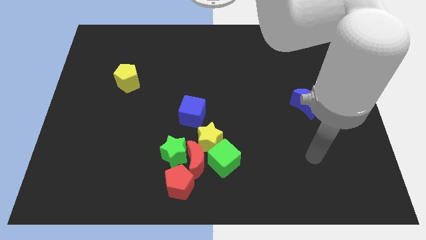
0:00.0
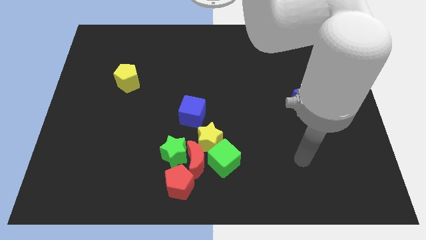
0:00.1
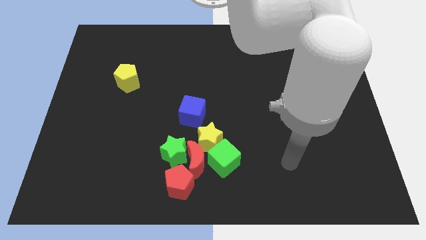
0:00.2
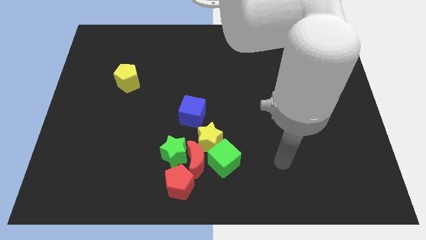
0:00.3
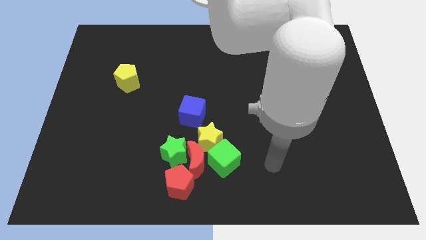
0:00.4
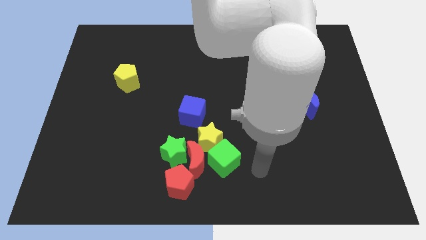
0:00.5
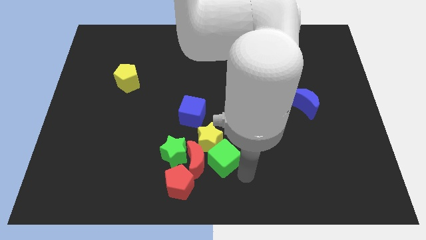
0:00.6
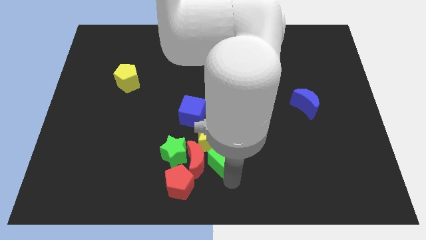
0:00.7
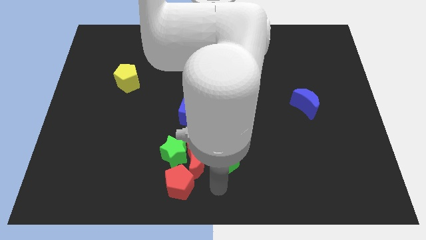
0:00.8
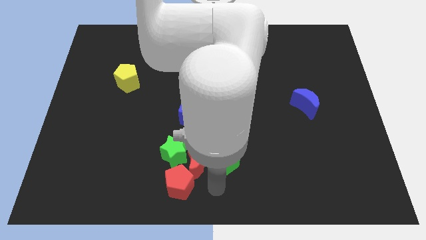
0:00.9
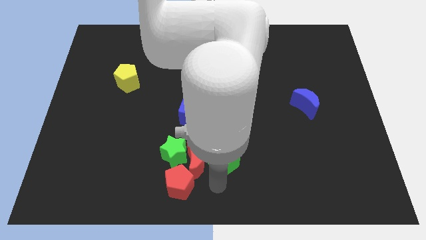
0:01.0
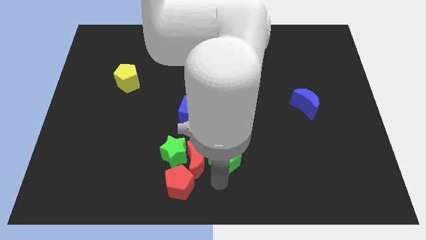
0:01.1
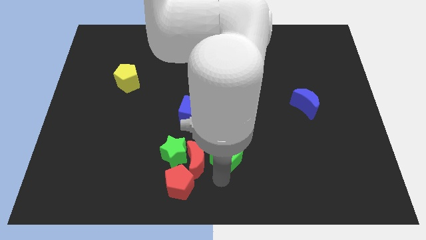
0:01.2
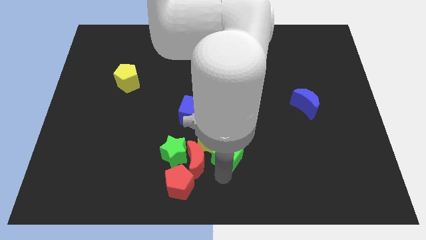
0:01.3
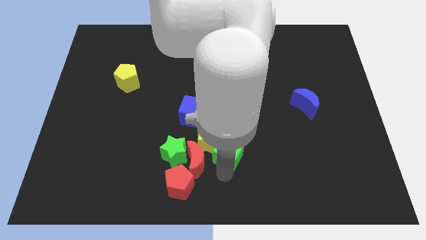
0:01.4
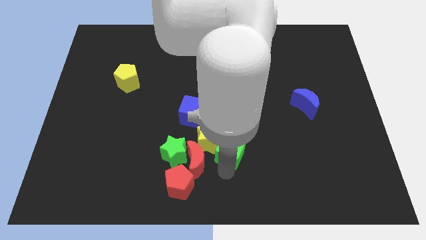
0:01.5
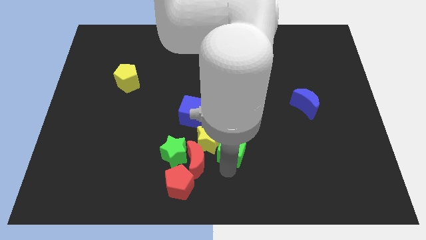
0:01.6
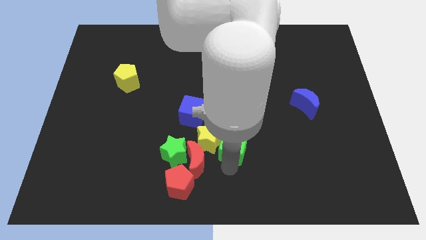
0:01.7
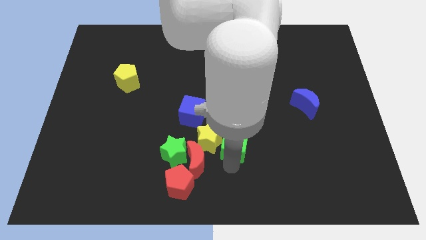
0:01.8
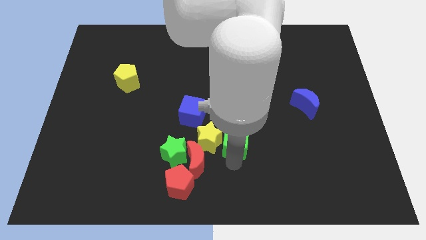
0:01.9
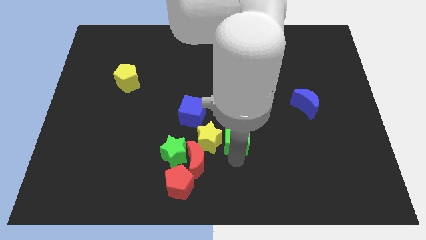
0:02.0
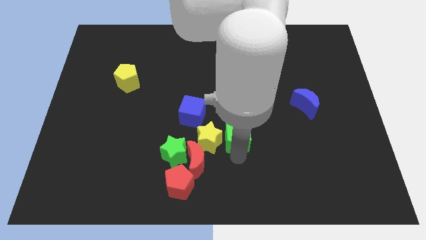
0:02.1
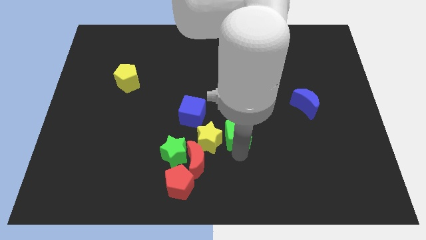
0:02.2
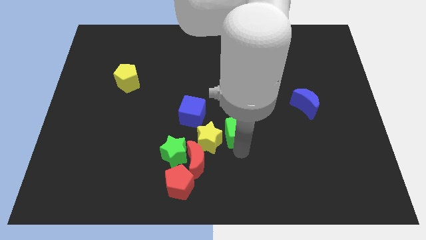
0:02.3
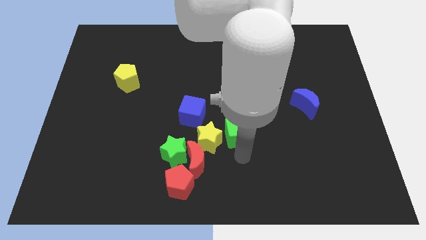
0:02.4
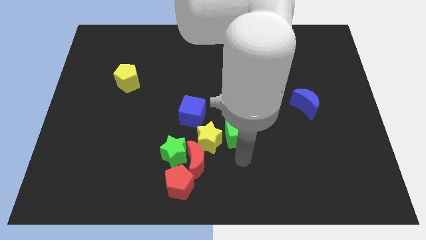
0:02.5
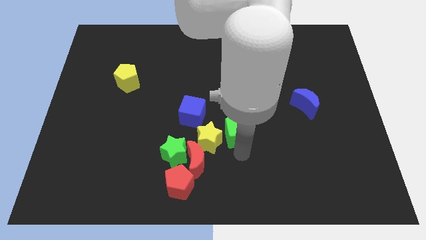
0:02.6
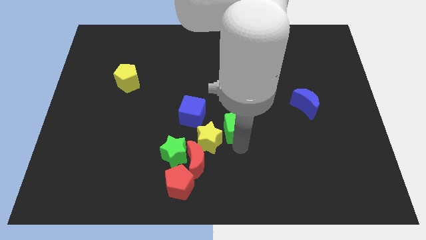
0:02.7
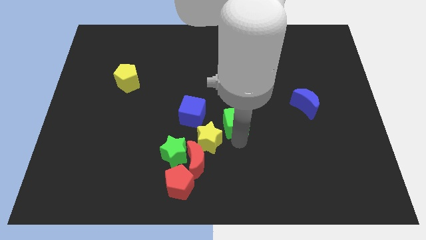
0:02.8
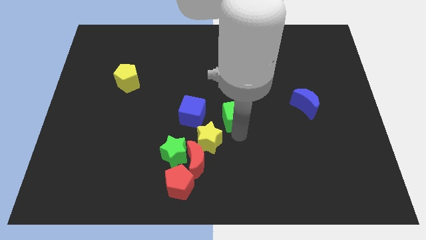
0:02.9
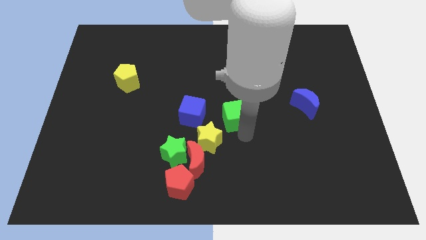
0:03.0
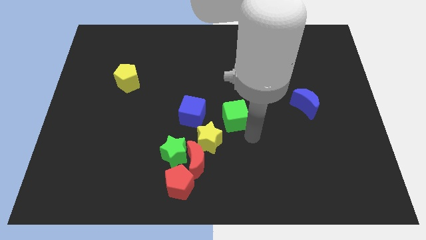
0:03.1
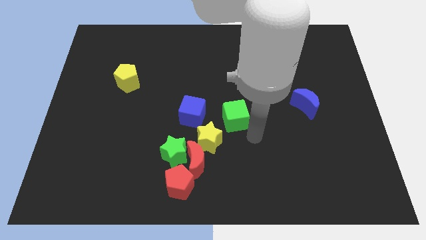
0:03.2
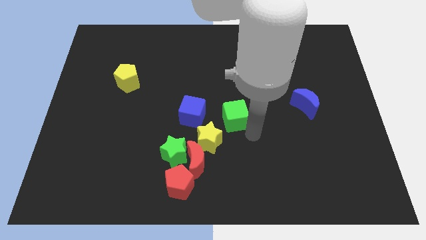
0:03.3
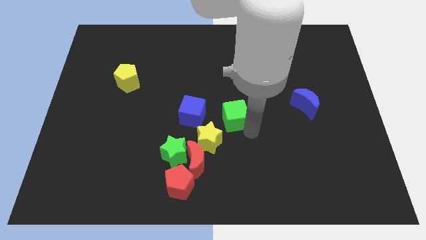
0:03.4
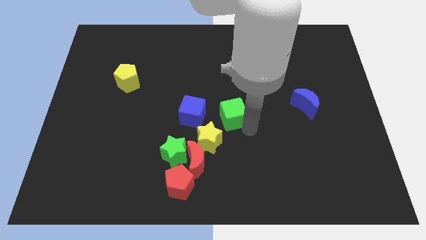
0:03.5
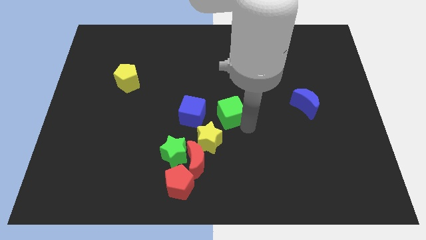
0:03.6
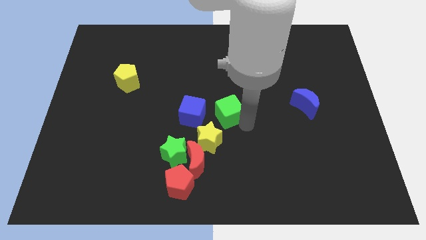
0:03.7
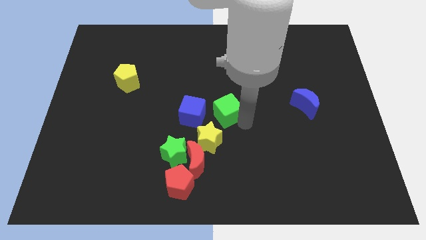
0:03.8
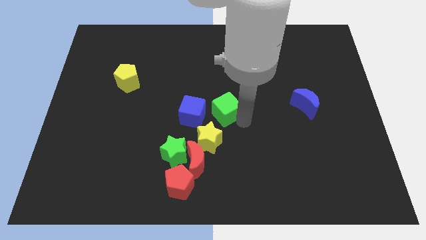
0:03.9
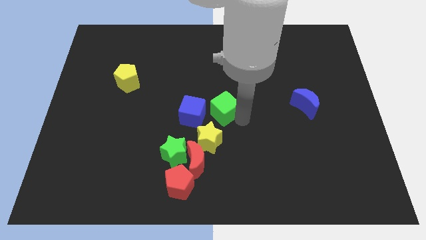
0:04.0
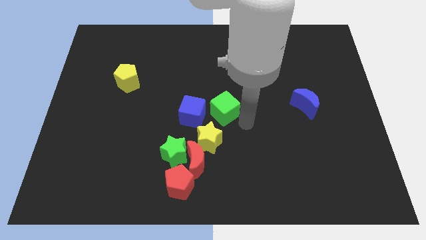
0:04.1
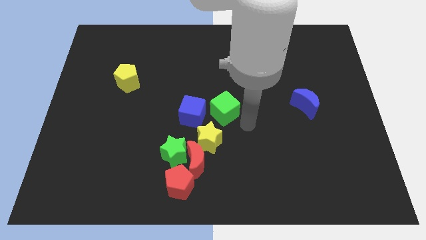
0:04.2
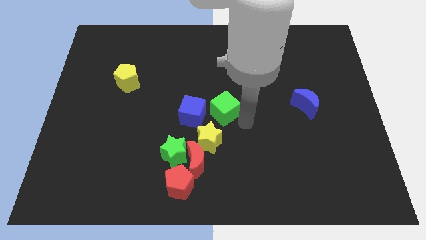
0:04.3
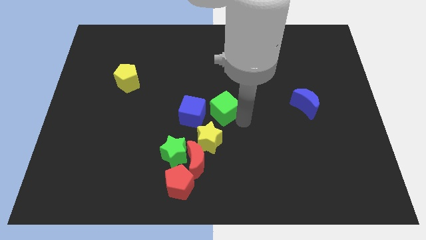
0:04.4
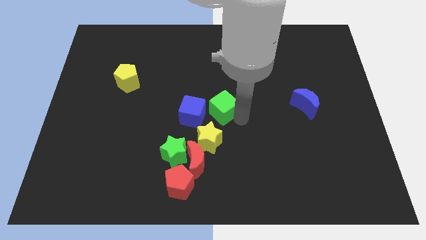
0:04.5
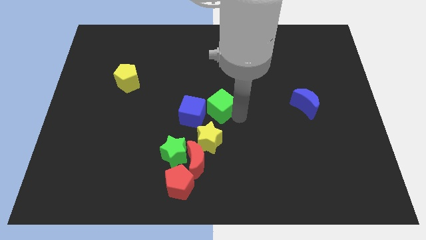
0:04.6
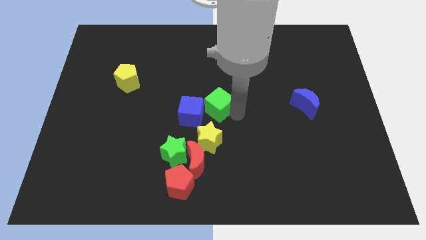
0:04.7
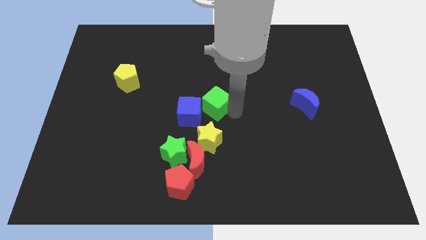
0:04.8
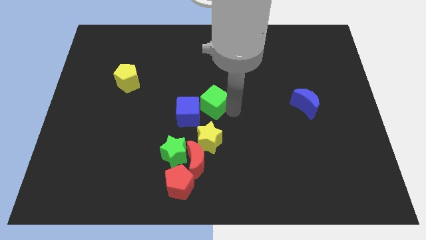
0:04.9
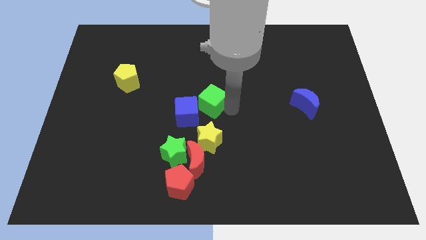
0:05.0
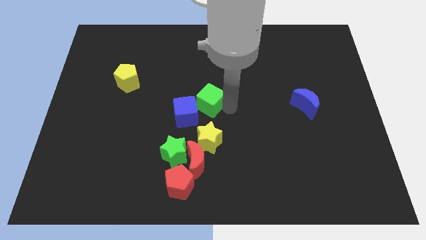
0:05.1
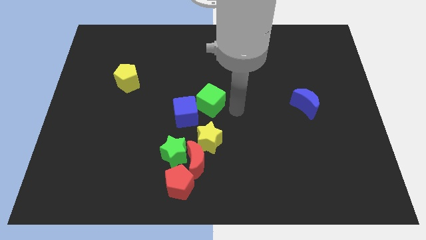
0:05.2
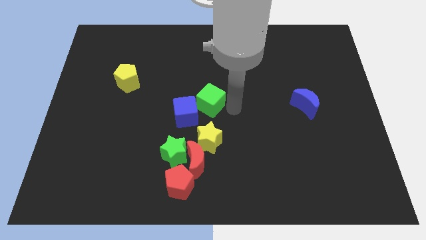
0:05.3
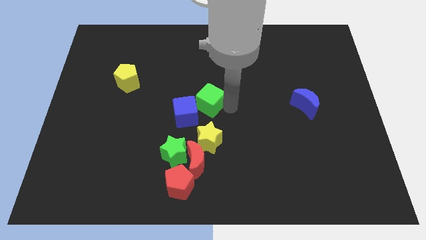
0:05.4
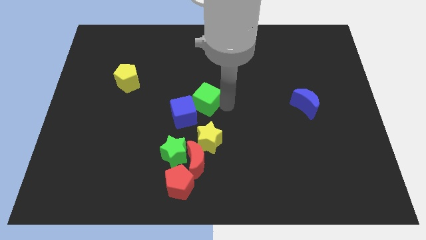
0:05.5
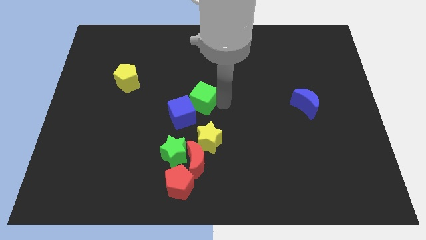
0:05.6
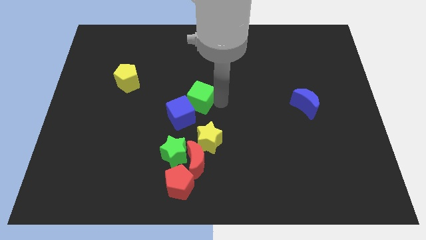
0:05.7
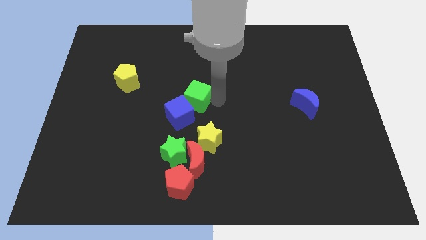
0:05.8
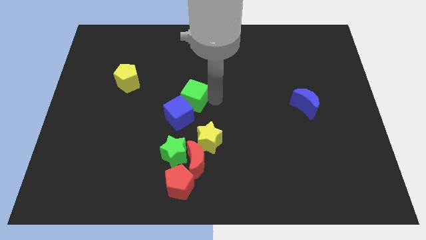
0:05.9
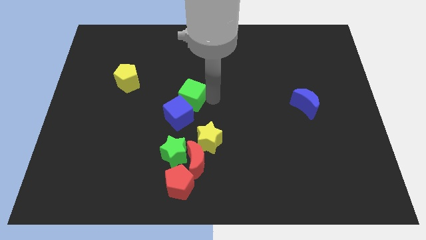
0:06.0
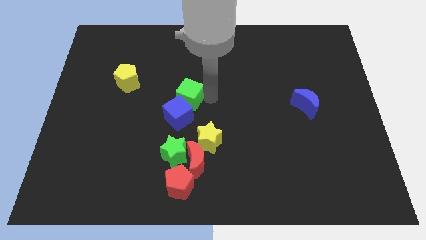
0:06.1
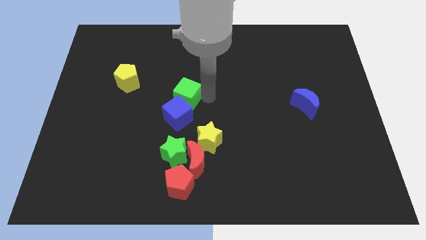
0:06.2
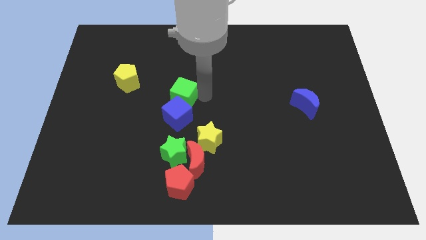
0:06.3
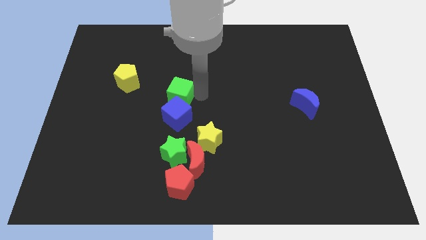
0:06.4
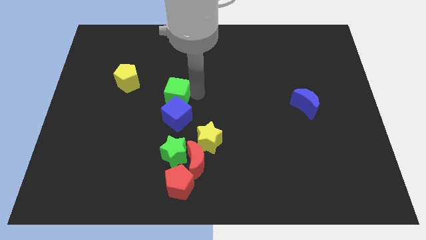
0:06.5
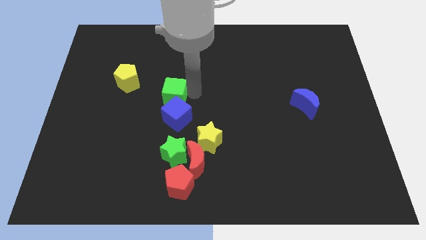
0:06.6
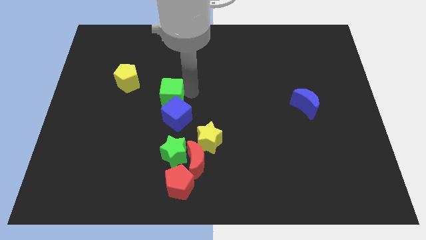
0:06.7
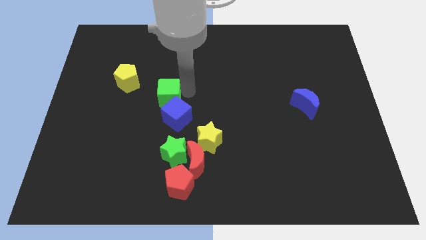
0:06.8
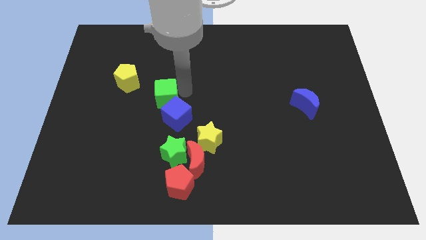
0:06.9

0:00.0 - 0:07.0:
move the green cube to the bottom right side of the yellow pentagon

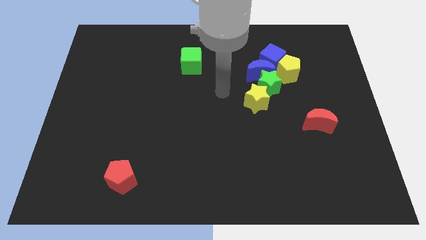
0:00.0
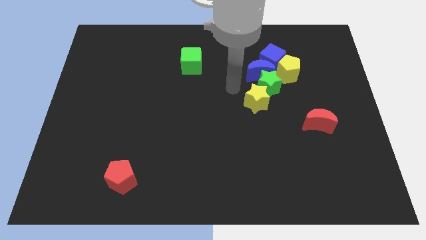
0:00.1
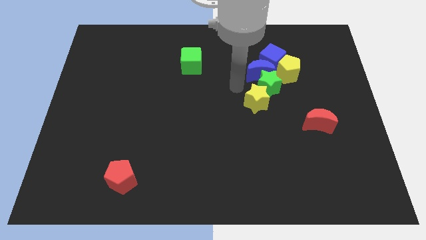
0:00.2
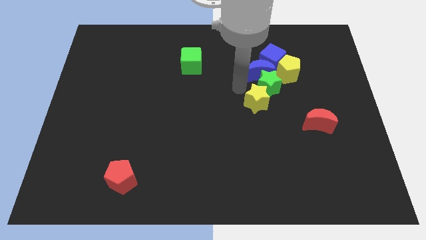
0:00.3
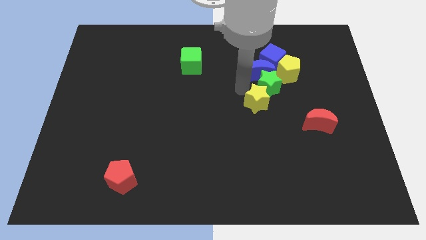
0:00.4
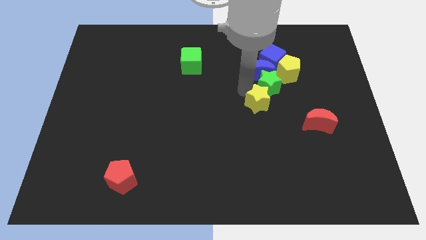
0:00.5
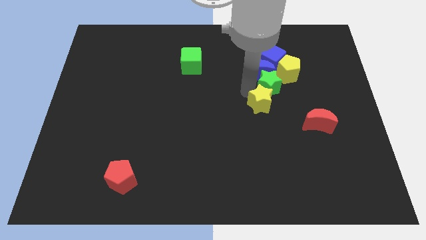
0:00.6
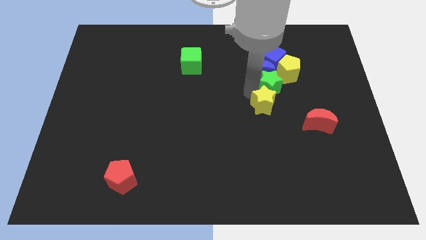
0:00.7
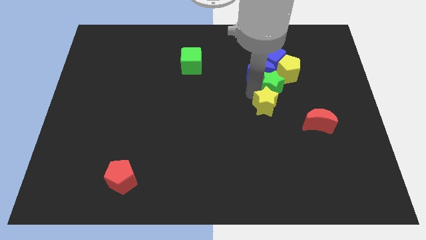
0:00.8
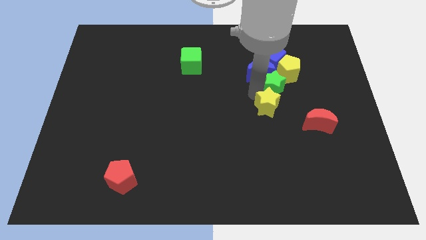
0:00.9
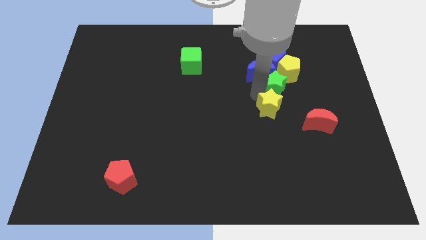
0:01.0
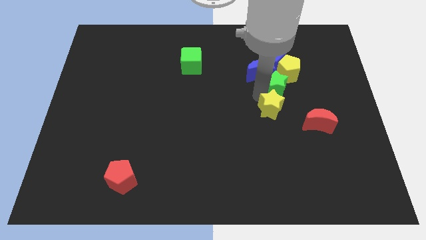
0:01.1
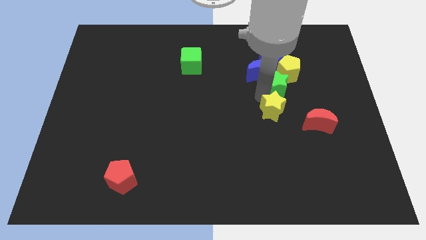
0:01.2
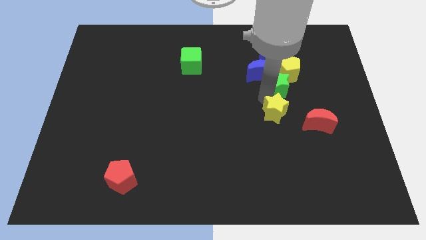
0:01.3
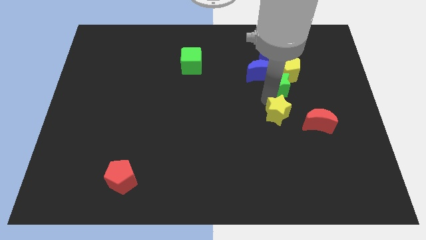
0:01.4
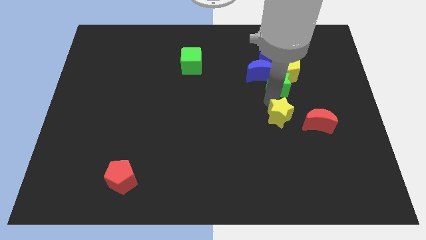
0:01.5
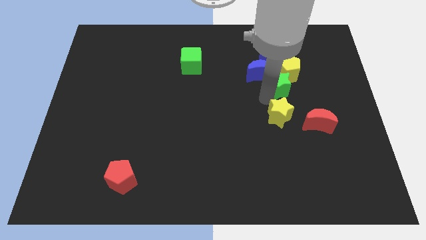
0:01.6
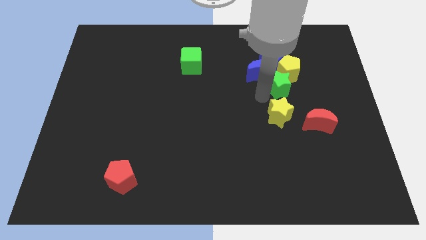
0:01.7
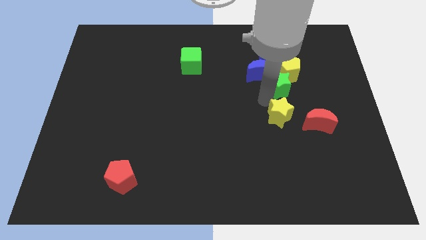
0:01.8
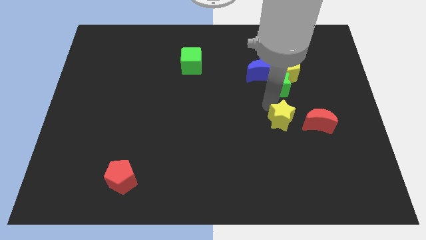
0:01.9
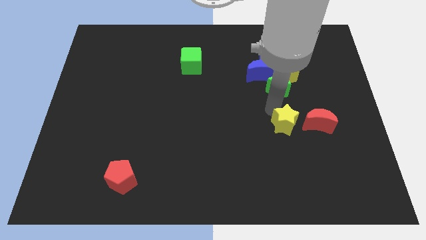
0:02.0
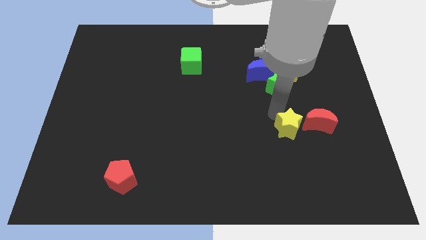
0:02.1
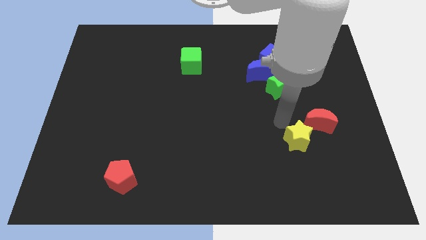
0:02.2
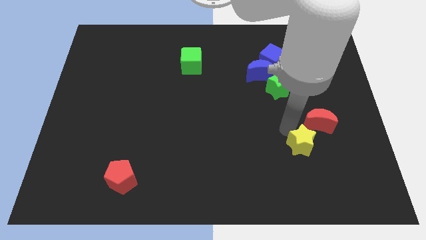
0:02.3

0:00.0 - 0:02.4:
move the yellow star to the bottom of the red moon
